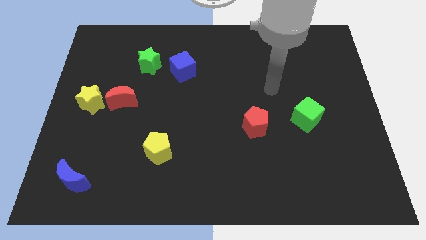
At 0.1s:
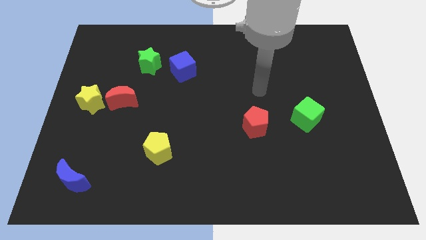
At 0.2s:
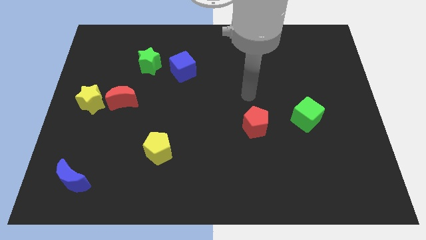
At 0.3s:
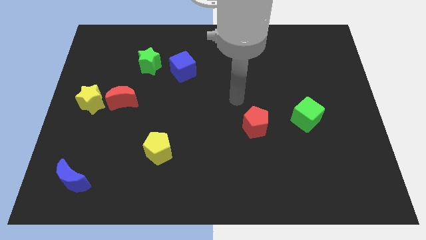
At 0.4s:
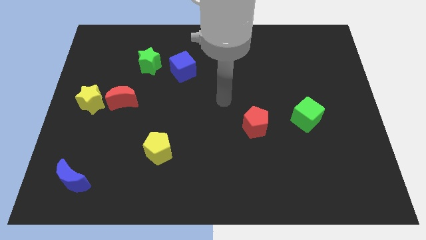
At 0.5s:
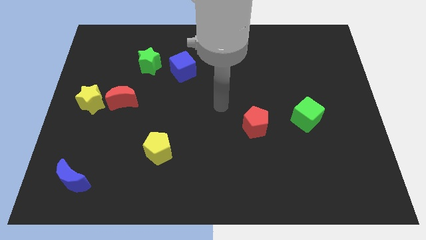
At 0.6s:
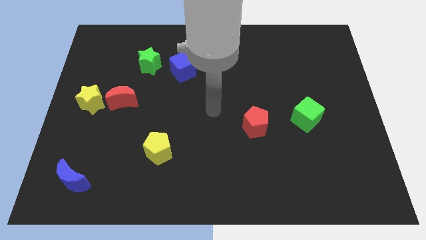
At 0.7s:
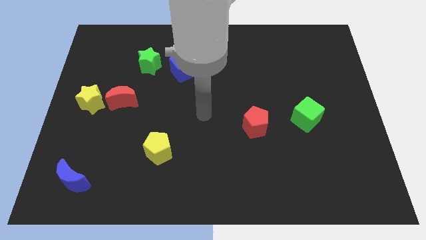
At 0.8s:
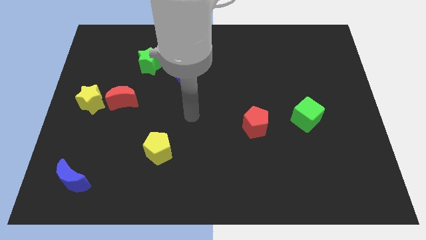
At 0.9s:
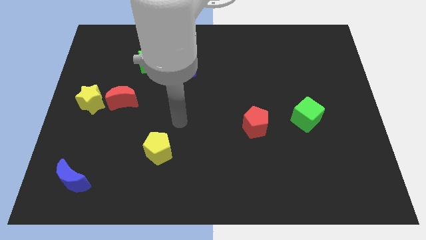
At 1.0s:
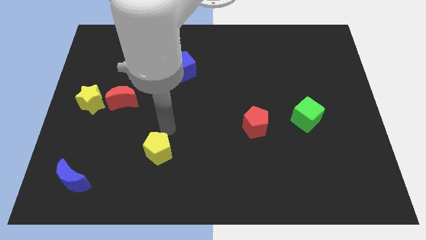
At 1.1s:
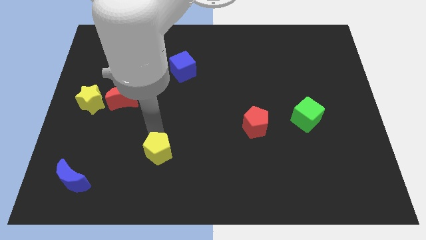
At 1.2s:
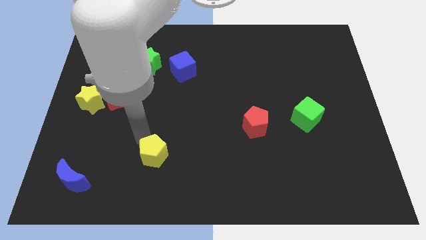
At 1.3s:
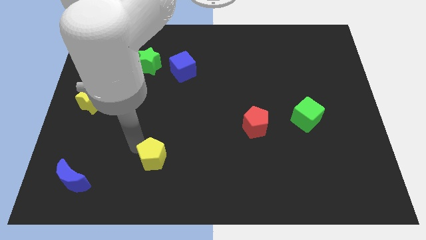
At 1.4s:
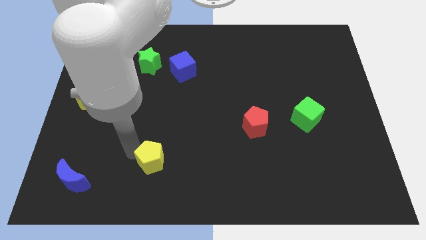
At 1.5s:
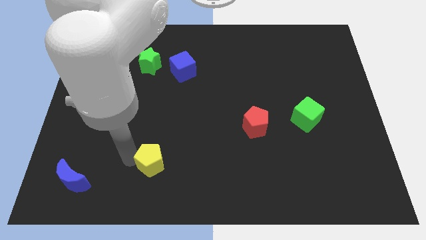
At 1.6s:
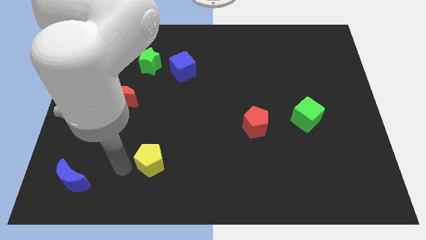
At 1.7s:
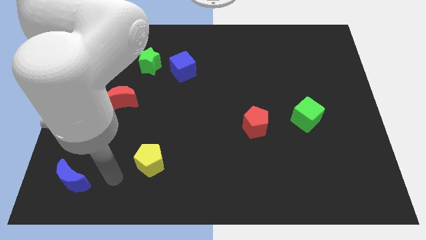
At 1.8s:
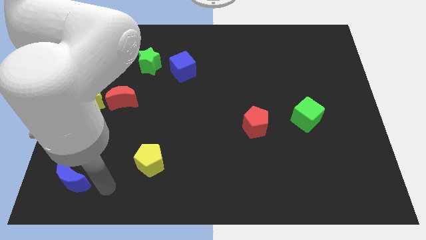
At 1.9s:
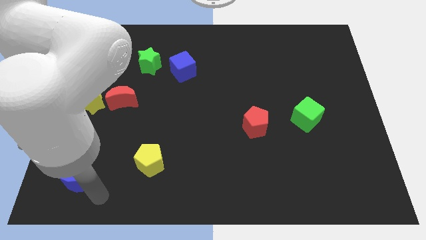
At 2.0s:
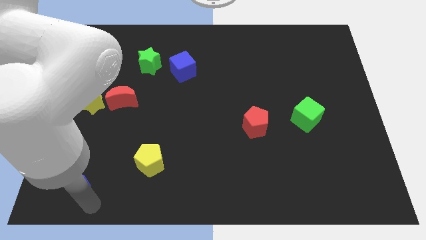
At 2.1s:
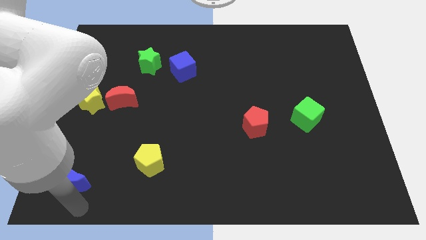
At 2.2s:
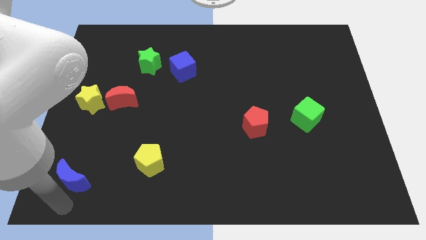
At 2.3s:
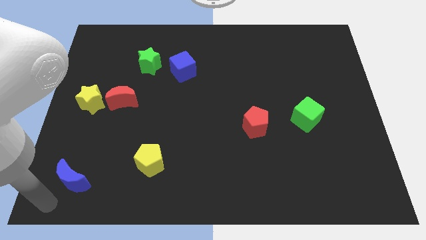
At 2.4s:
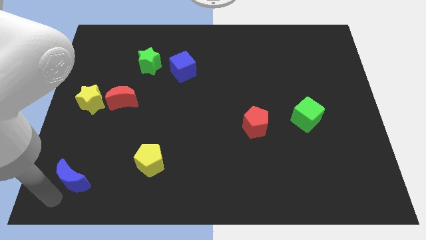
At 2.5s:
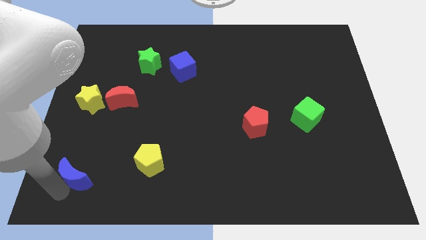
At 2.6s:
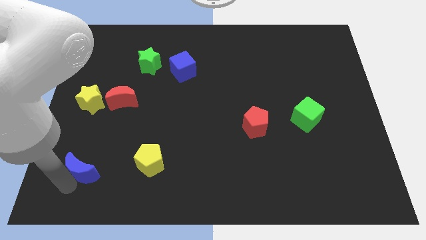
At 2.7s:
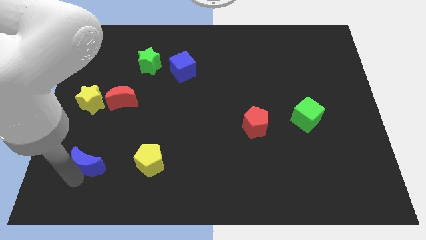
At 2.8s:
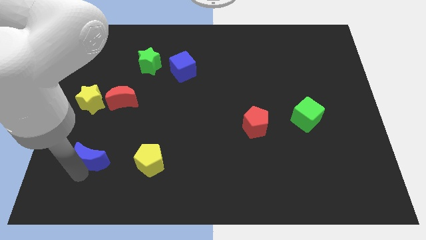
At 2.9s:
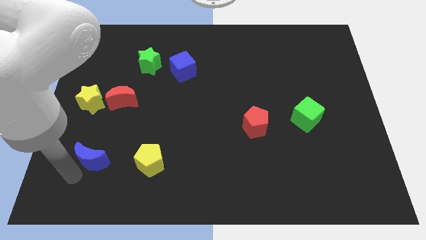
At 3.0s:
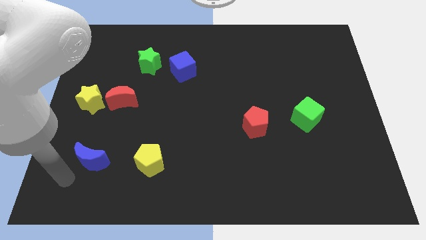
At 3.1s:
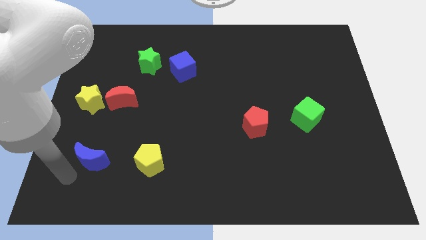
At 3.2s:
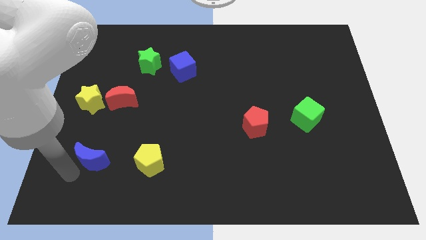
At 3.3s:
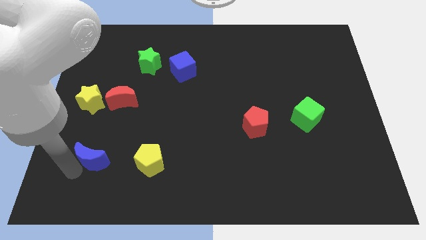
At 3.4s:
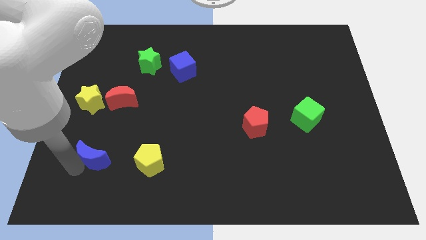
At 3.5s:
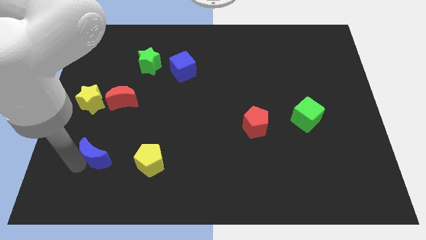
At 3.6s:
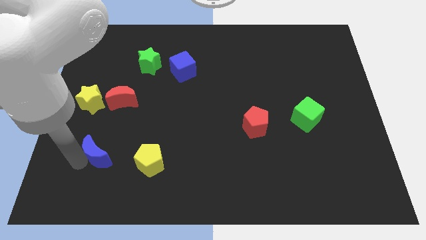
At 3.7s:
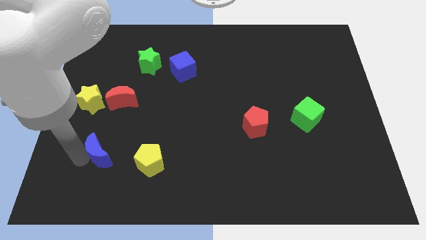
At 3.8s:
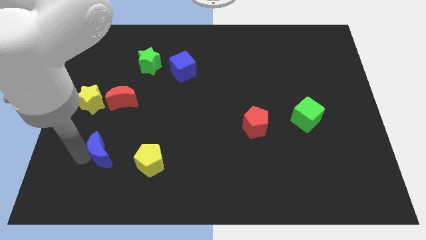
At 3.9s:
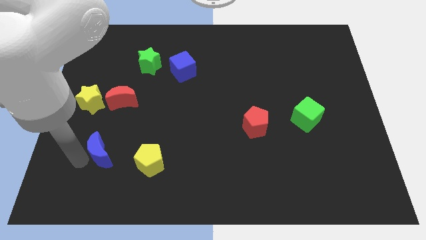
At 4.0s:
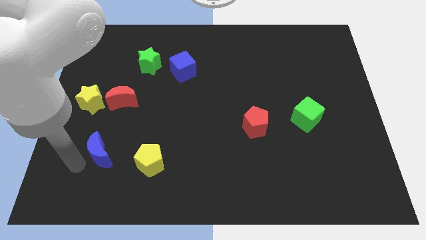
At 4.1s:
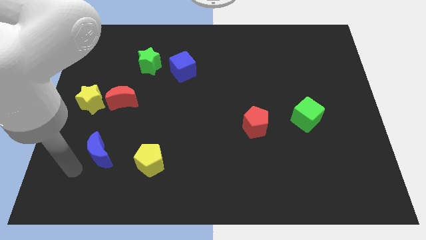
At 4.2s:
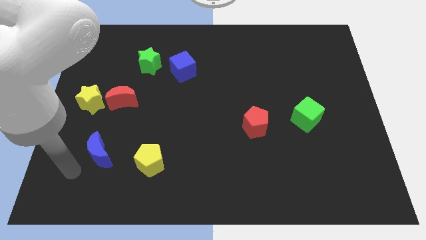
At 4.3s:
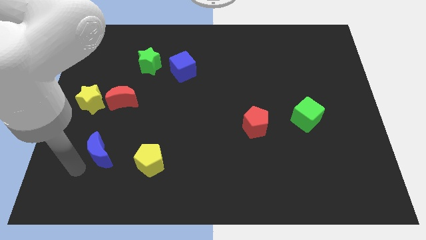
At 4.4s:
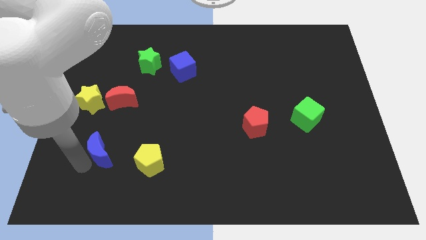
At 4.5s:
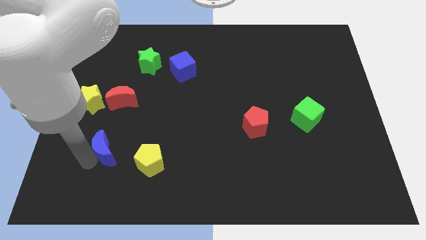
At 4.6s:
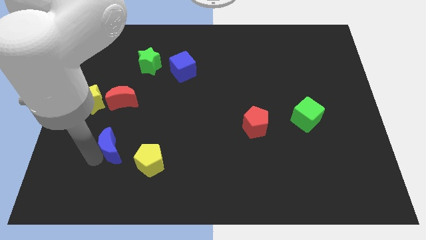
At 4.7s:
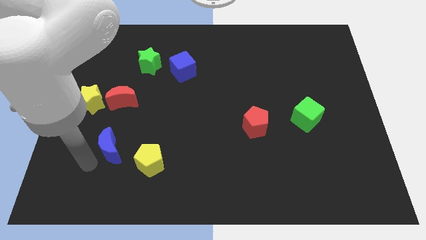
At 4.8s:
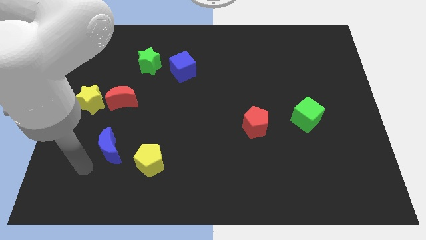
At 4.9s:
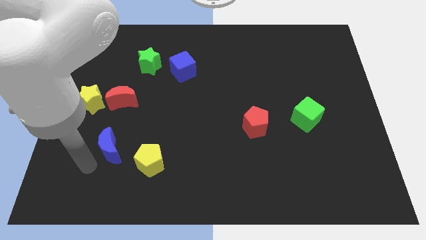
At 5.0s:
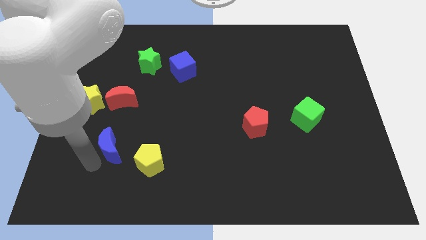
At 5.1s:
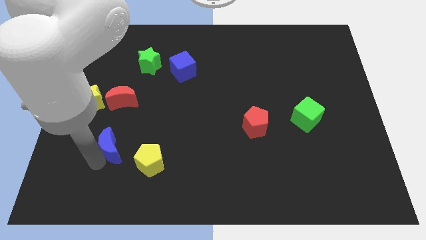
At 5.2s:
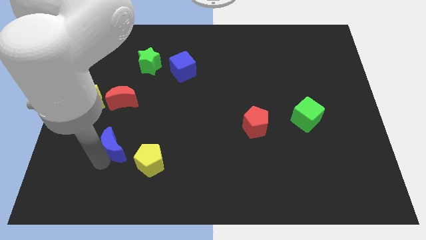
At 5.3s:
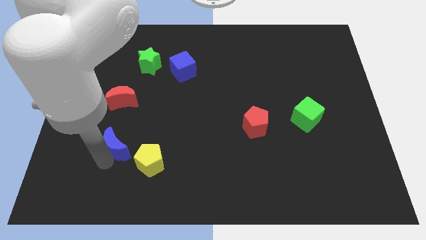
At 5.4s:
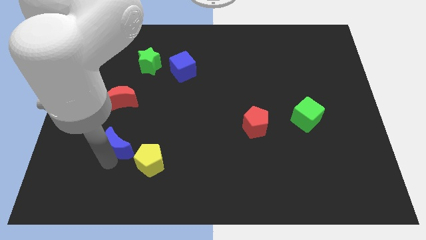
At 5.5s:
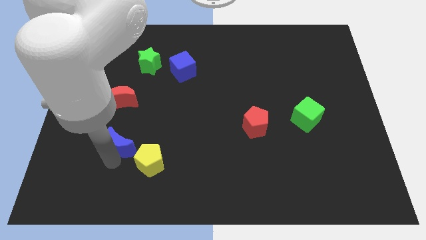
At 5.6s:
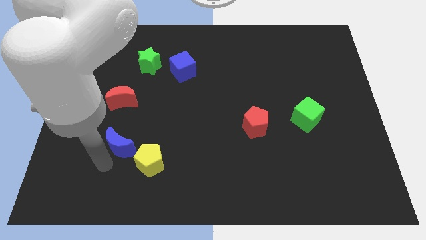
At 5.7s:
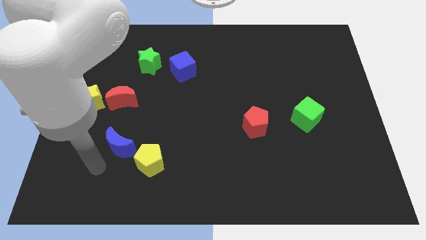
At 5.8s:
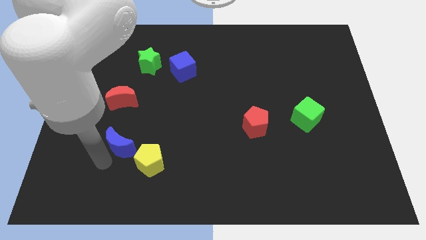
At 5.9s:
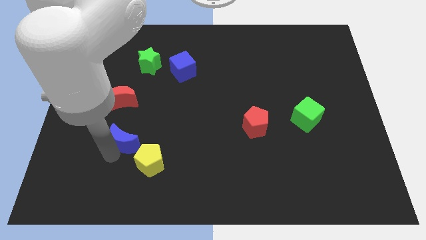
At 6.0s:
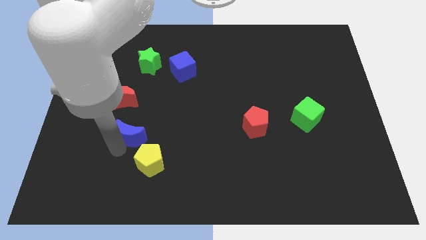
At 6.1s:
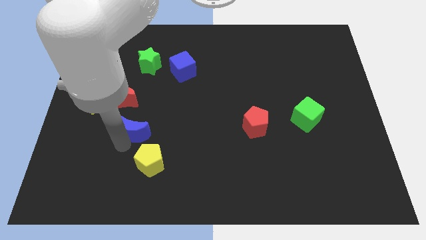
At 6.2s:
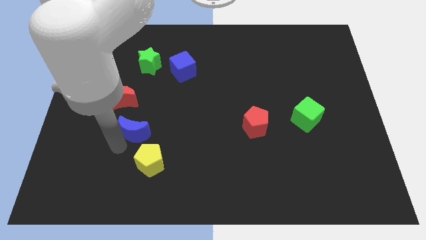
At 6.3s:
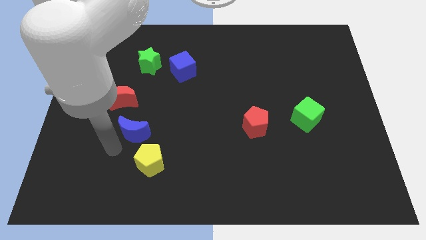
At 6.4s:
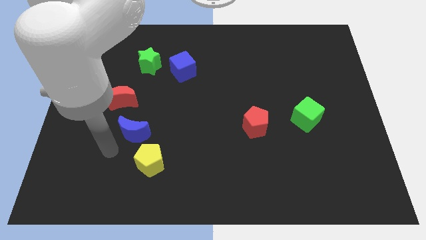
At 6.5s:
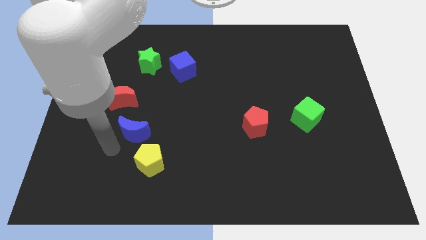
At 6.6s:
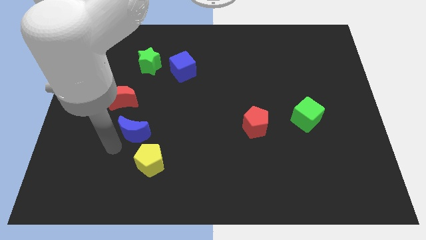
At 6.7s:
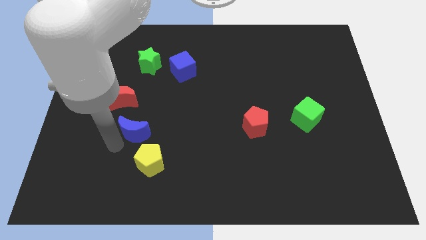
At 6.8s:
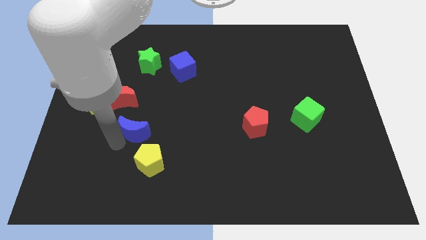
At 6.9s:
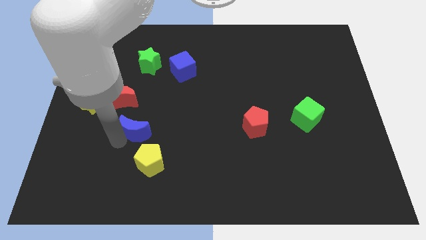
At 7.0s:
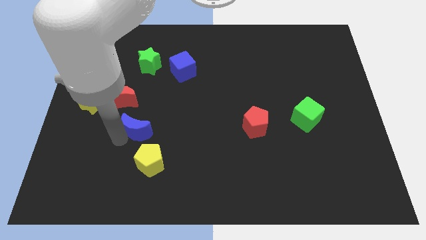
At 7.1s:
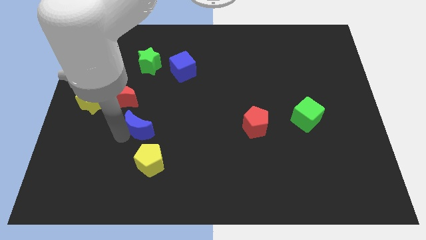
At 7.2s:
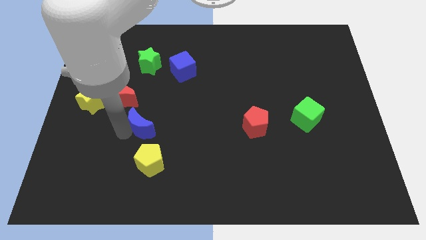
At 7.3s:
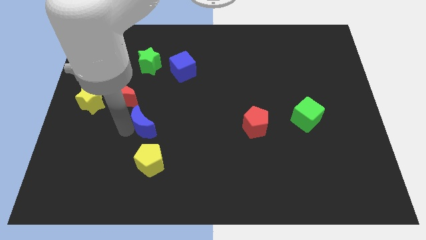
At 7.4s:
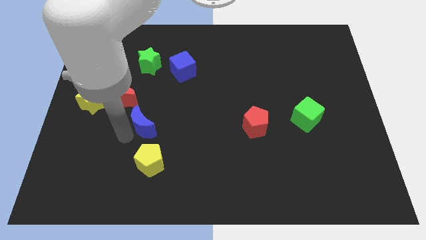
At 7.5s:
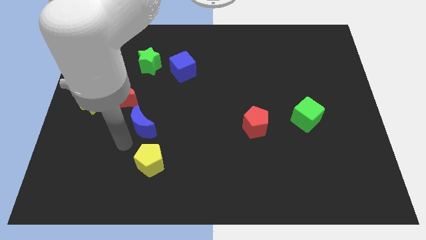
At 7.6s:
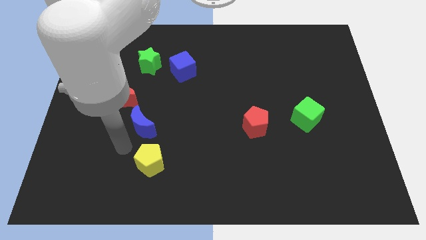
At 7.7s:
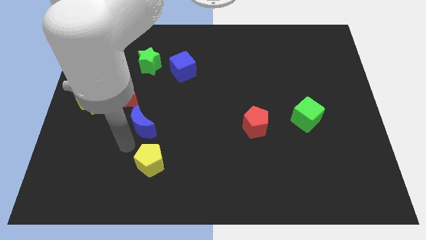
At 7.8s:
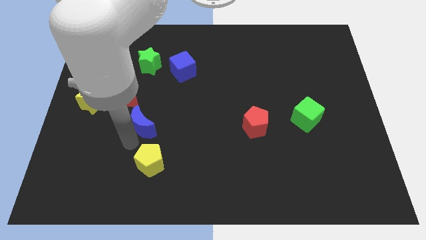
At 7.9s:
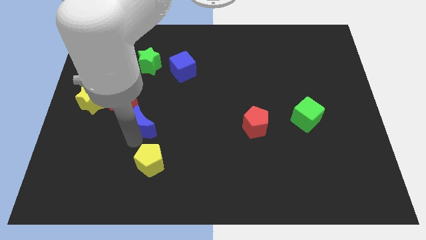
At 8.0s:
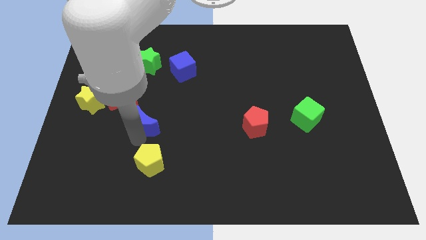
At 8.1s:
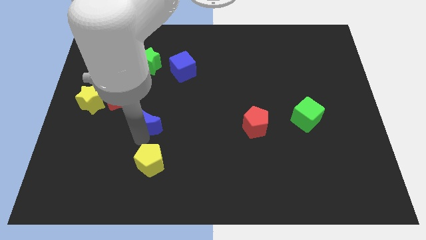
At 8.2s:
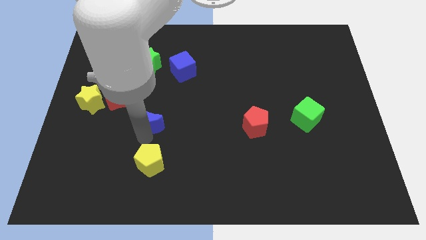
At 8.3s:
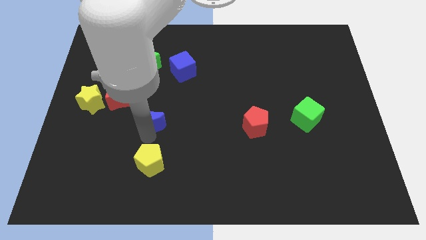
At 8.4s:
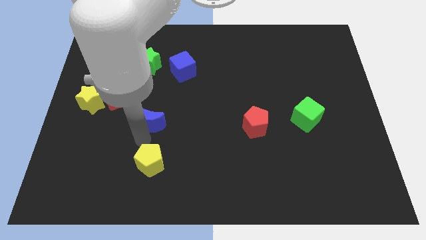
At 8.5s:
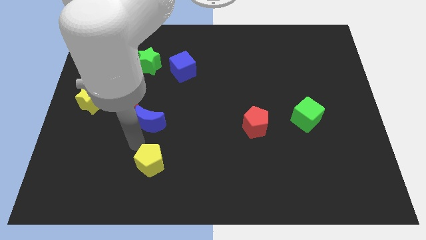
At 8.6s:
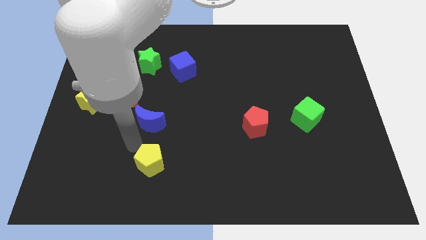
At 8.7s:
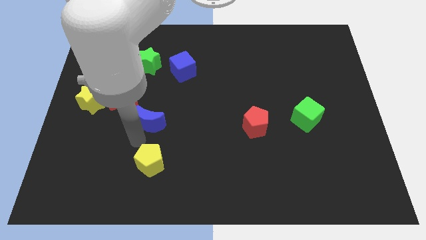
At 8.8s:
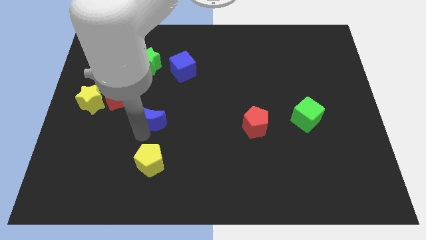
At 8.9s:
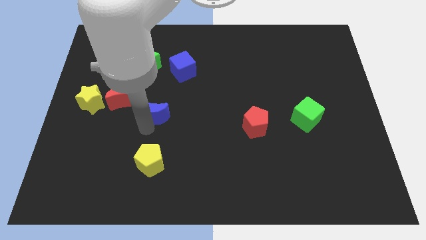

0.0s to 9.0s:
push the blue moon right of the red moon
